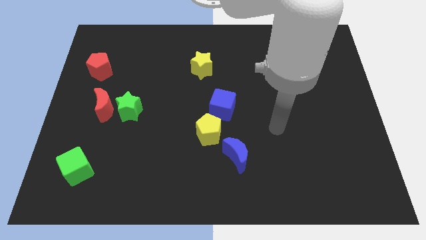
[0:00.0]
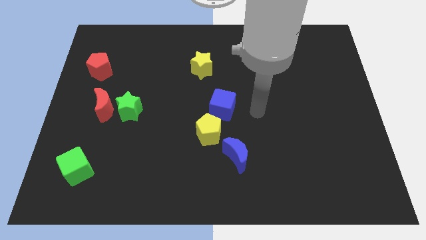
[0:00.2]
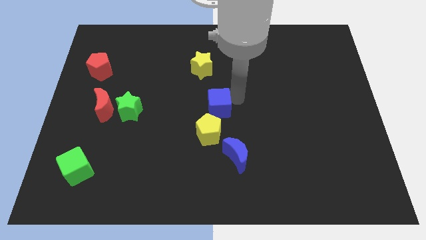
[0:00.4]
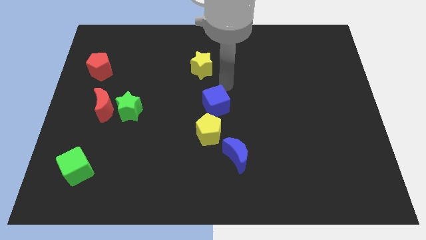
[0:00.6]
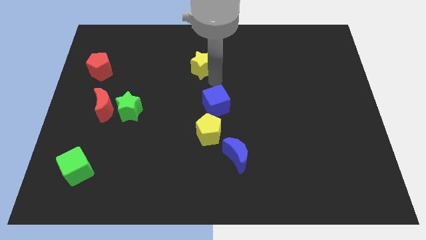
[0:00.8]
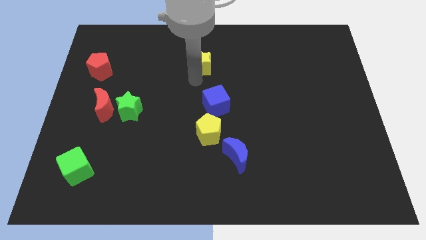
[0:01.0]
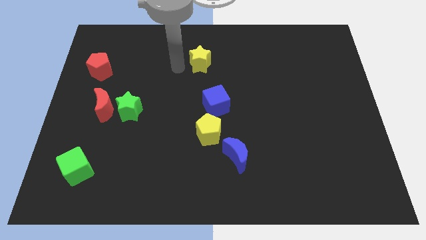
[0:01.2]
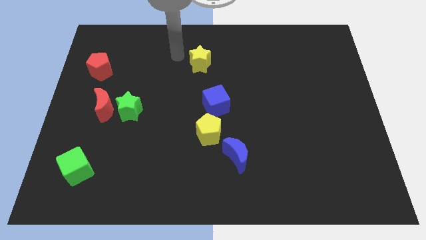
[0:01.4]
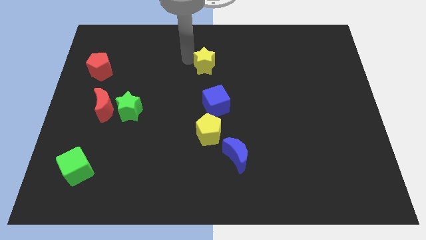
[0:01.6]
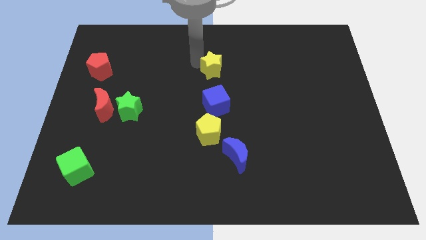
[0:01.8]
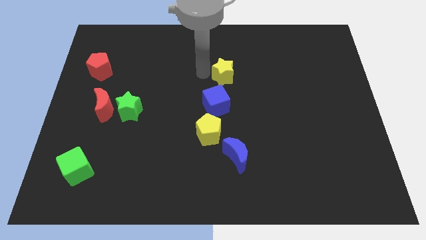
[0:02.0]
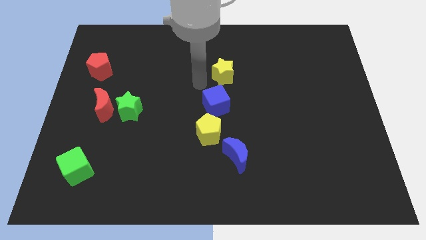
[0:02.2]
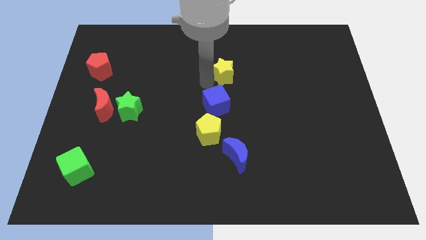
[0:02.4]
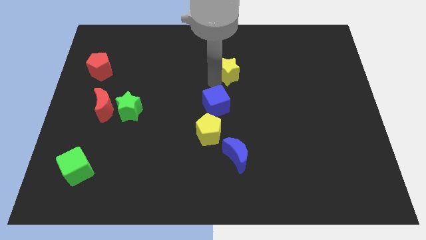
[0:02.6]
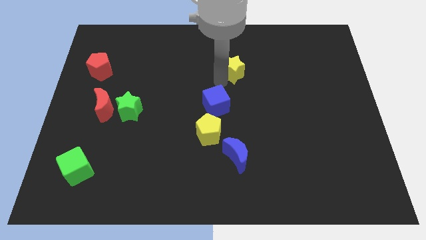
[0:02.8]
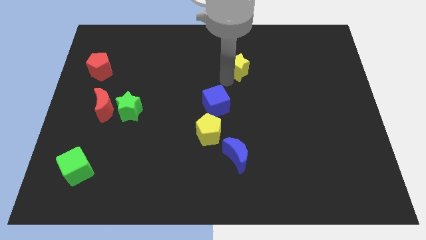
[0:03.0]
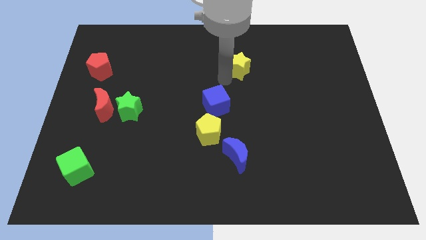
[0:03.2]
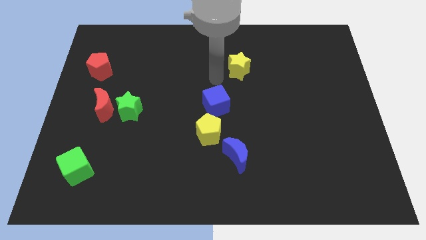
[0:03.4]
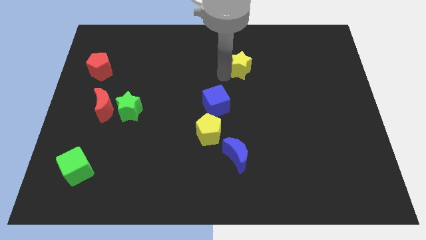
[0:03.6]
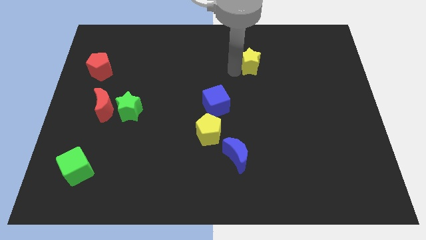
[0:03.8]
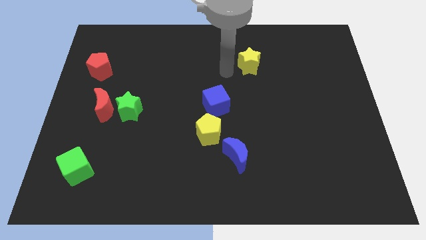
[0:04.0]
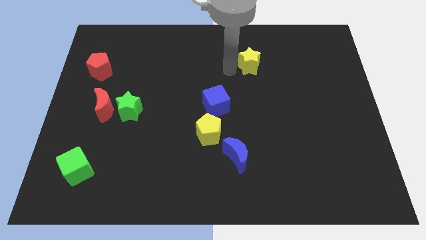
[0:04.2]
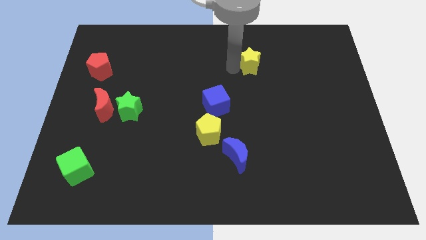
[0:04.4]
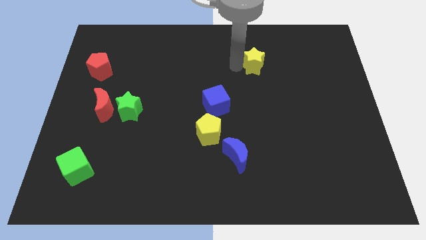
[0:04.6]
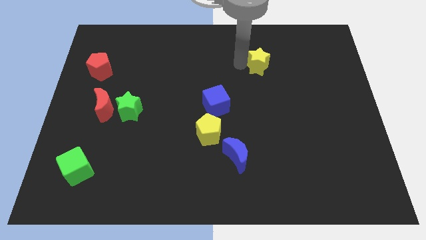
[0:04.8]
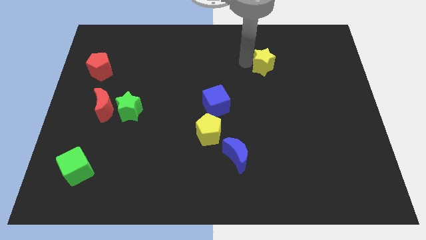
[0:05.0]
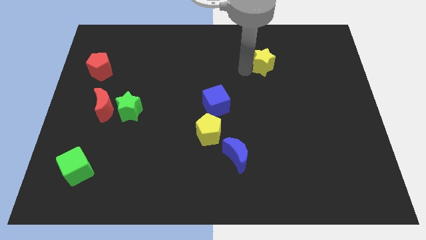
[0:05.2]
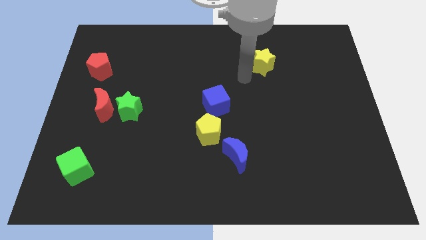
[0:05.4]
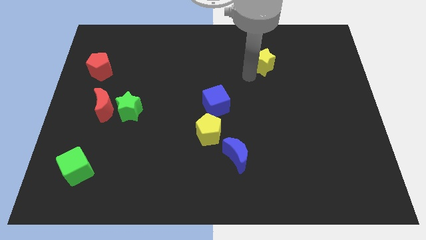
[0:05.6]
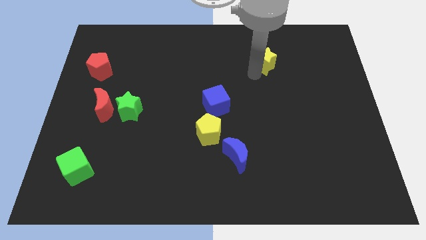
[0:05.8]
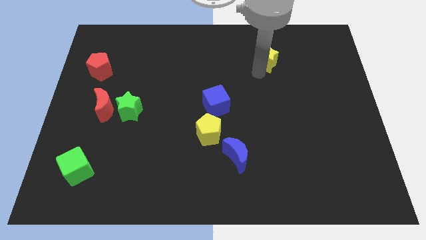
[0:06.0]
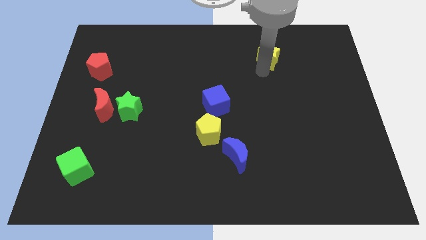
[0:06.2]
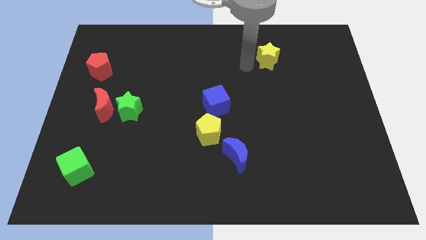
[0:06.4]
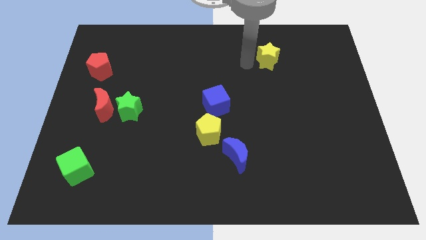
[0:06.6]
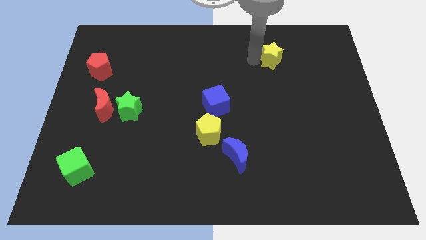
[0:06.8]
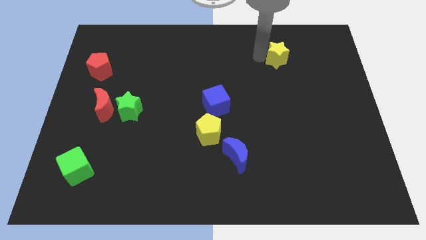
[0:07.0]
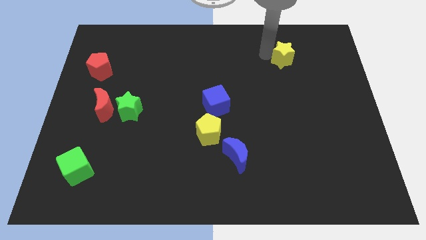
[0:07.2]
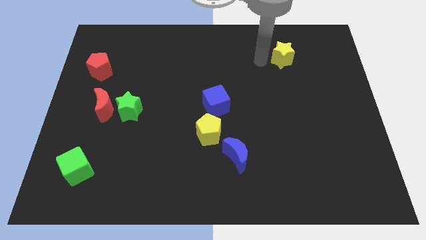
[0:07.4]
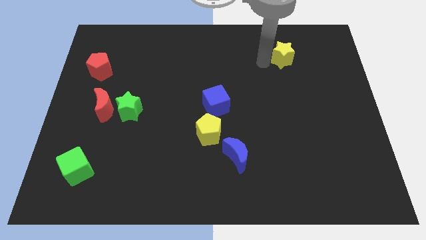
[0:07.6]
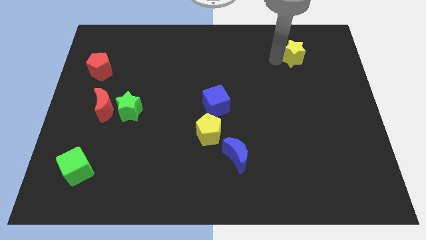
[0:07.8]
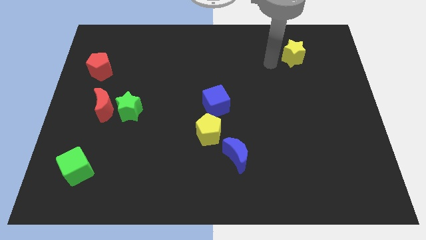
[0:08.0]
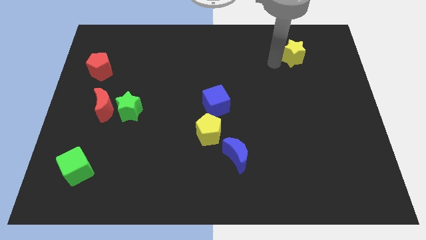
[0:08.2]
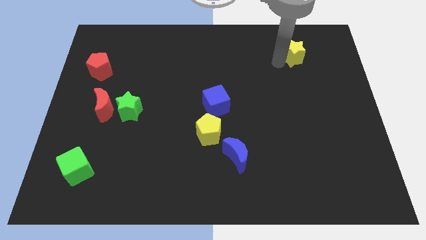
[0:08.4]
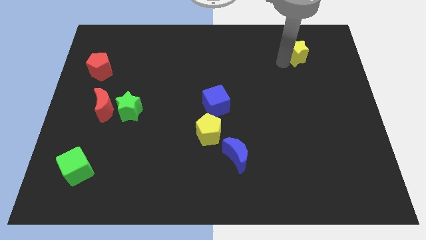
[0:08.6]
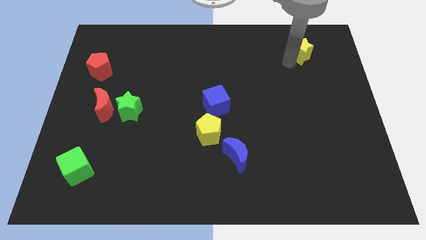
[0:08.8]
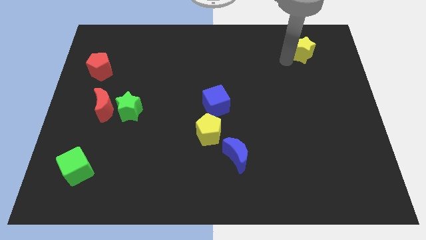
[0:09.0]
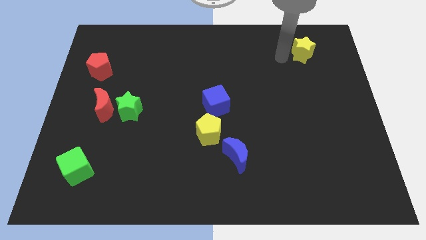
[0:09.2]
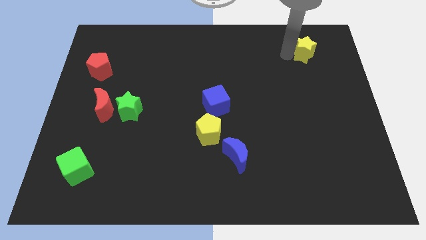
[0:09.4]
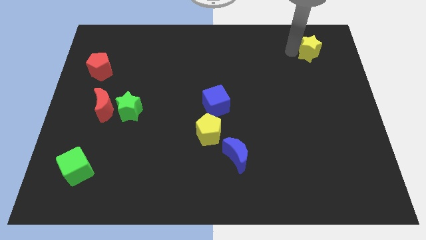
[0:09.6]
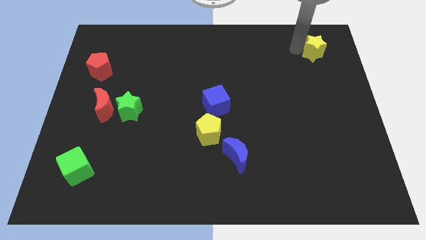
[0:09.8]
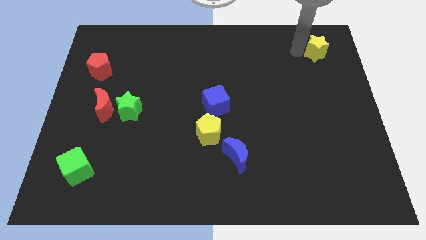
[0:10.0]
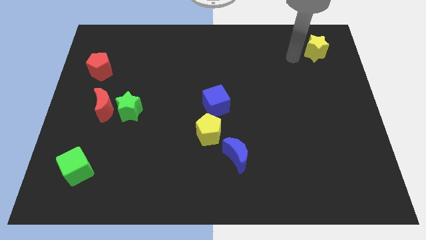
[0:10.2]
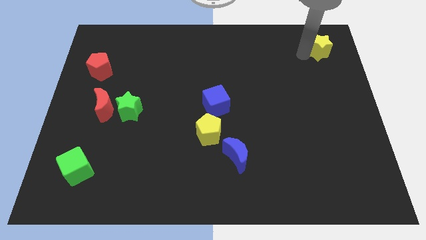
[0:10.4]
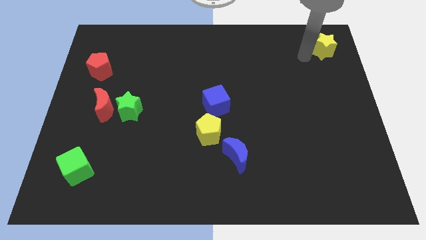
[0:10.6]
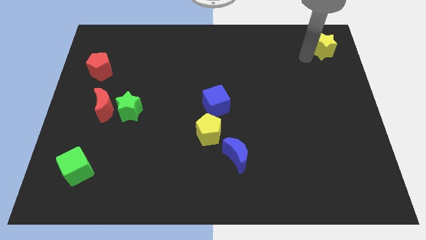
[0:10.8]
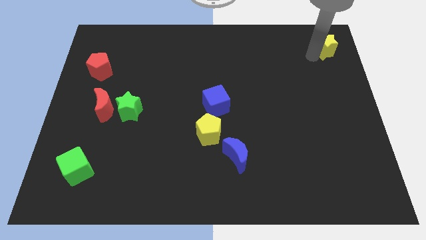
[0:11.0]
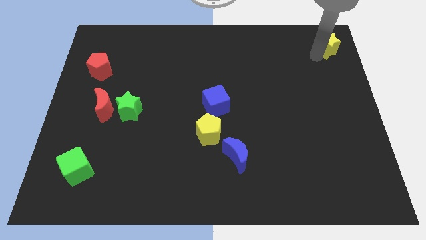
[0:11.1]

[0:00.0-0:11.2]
push the yellow star to the top right

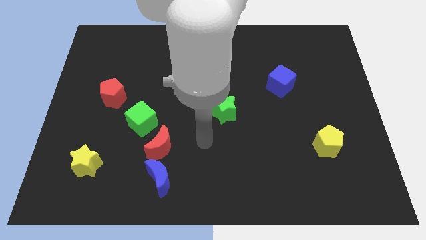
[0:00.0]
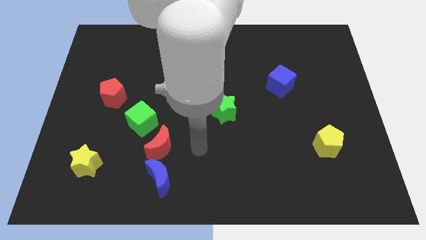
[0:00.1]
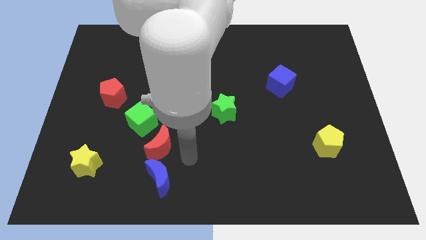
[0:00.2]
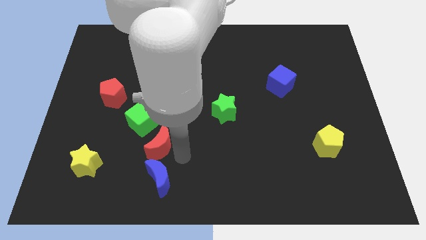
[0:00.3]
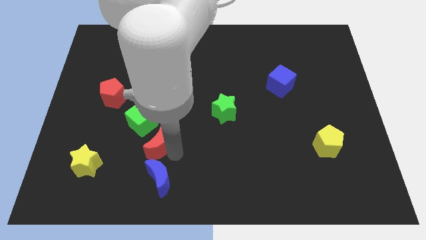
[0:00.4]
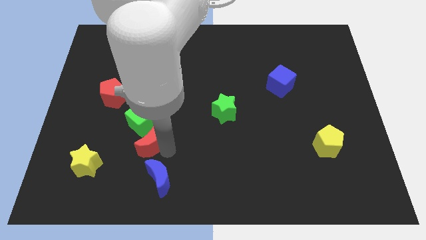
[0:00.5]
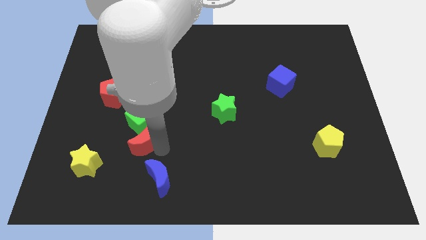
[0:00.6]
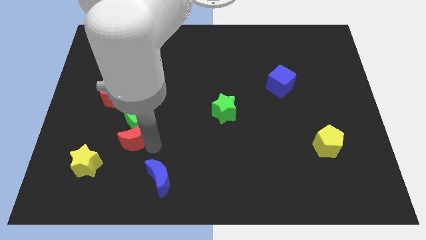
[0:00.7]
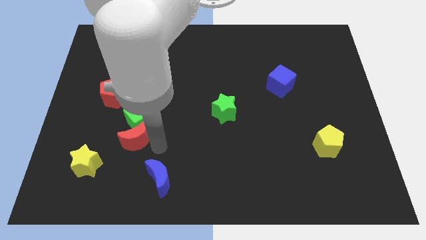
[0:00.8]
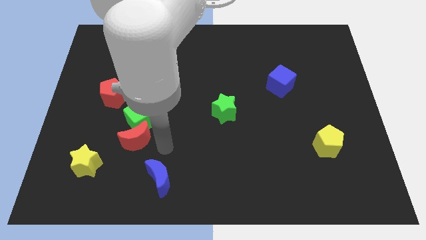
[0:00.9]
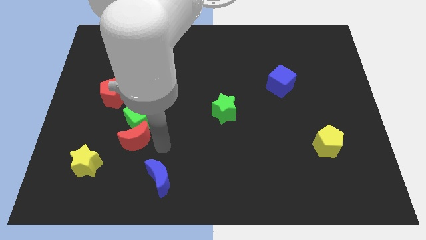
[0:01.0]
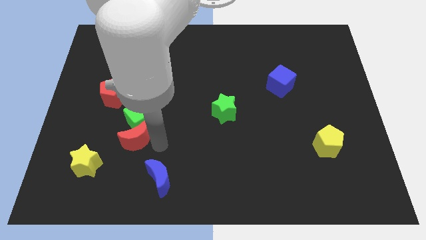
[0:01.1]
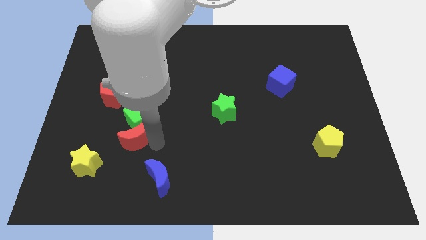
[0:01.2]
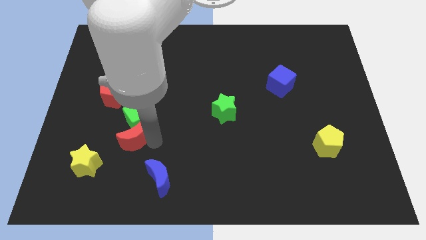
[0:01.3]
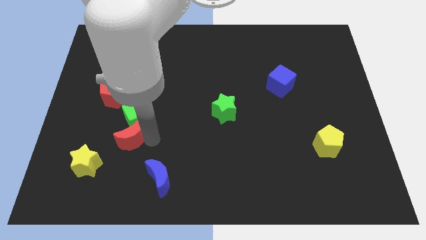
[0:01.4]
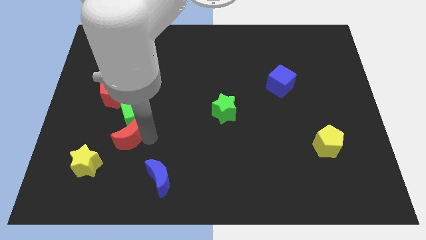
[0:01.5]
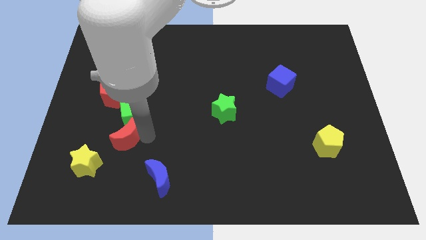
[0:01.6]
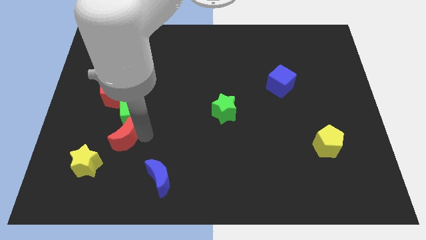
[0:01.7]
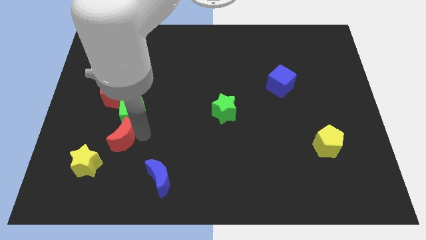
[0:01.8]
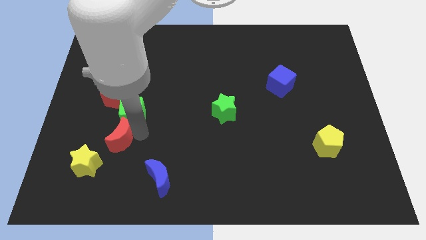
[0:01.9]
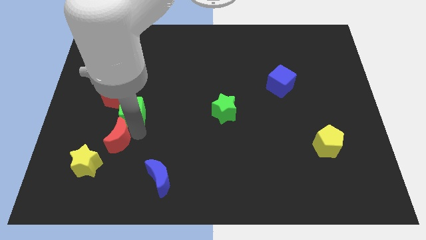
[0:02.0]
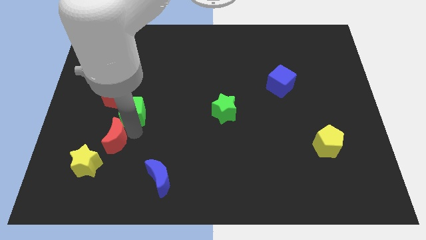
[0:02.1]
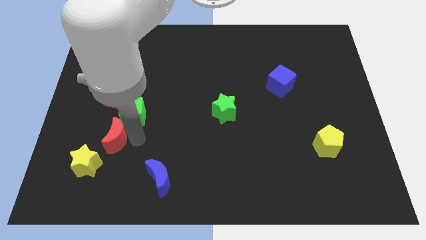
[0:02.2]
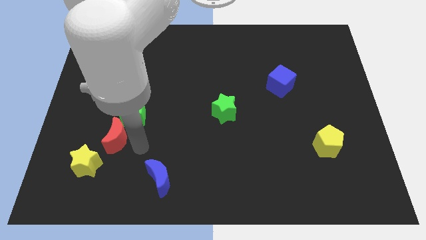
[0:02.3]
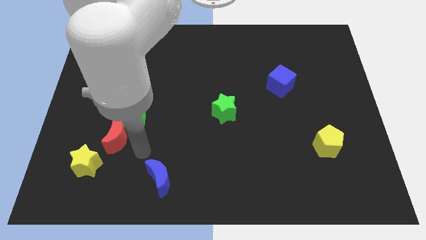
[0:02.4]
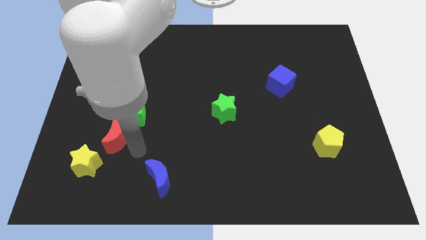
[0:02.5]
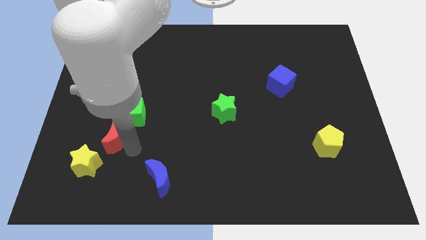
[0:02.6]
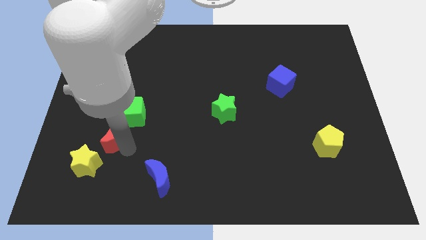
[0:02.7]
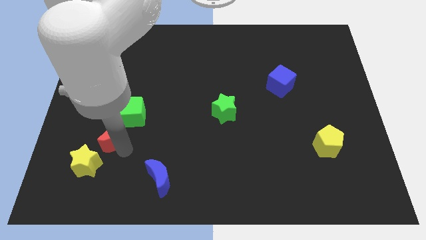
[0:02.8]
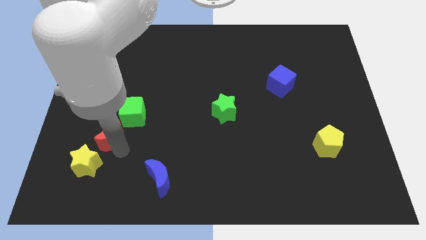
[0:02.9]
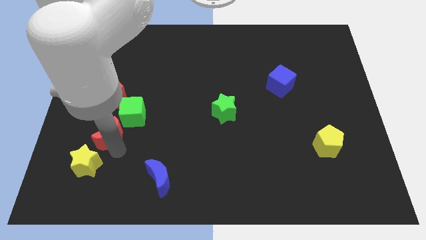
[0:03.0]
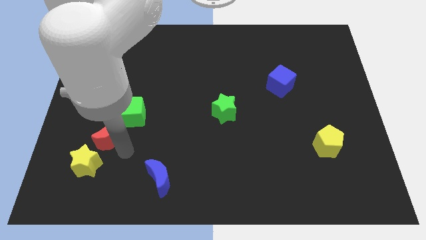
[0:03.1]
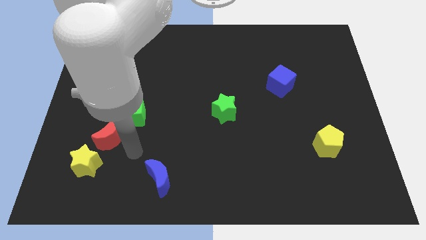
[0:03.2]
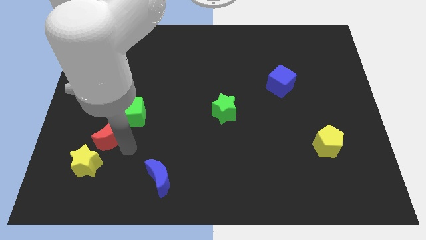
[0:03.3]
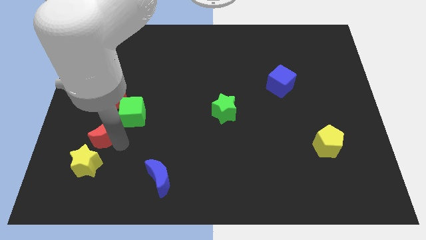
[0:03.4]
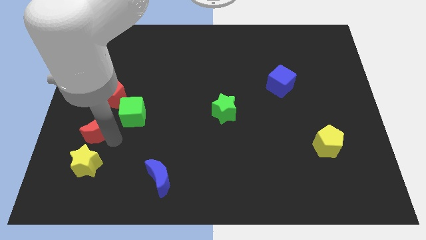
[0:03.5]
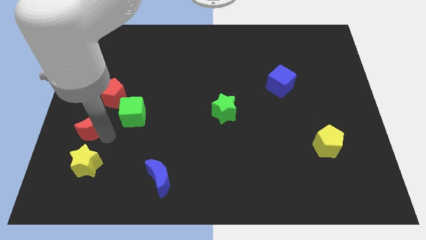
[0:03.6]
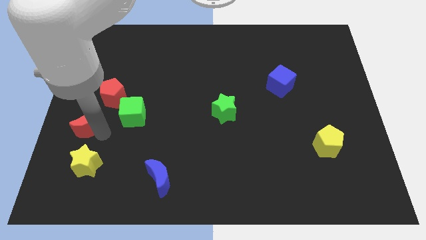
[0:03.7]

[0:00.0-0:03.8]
move the red moon to the left side
